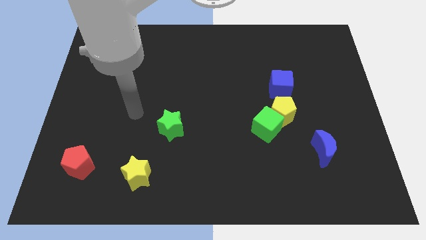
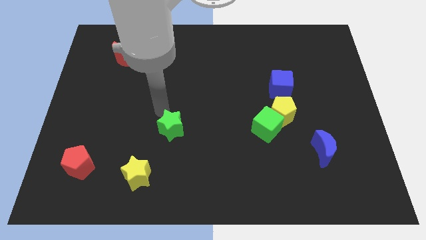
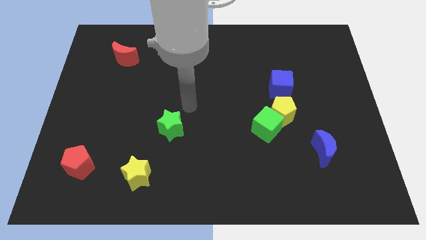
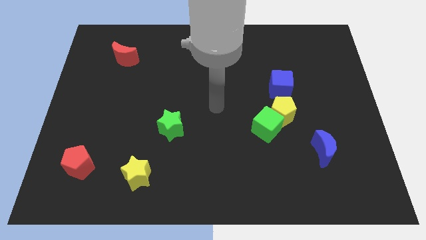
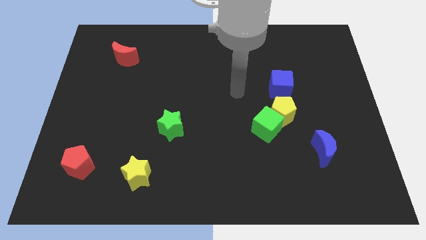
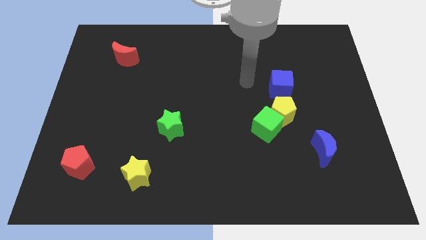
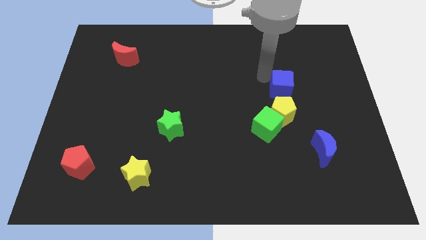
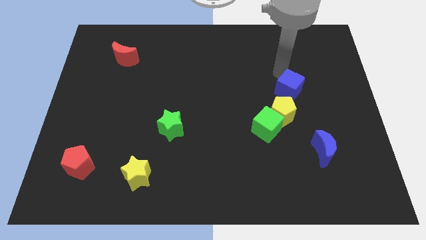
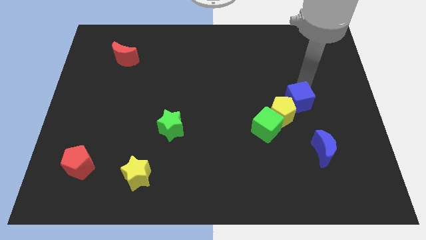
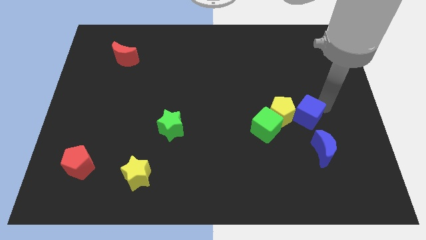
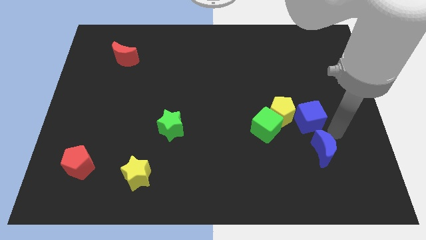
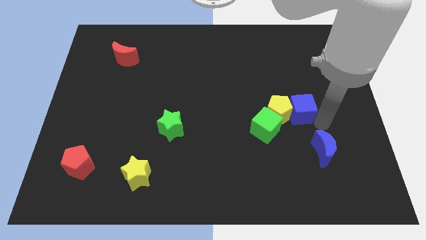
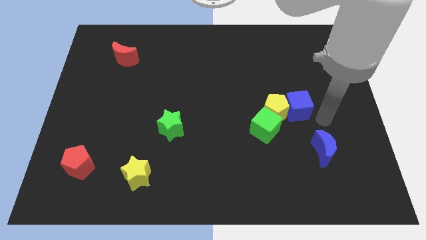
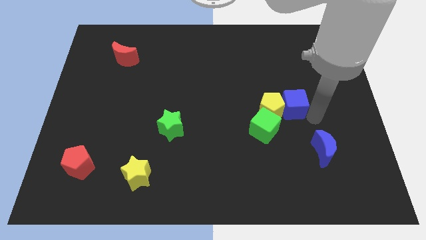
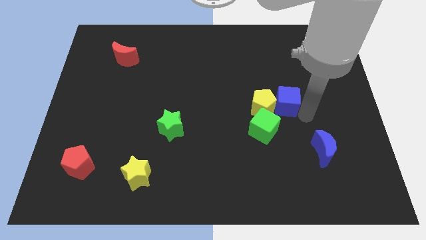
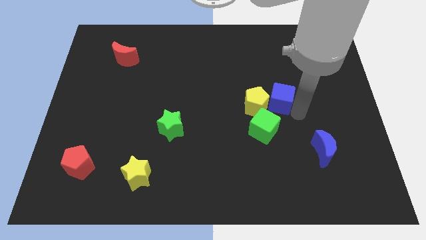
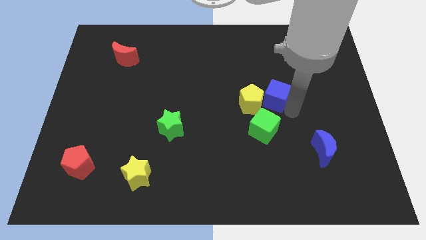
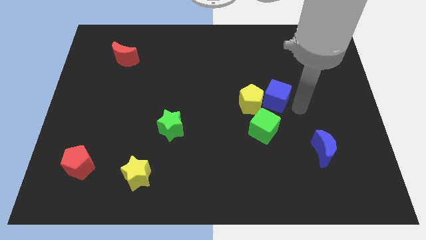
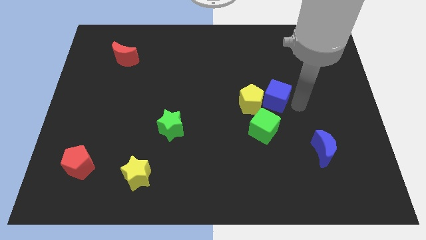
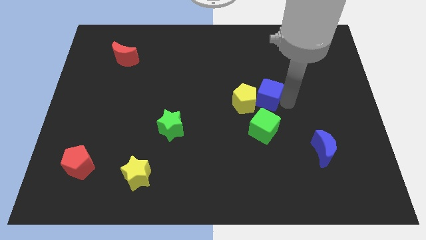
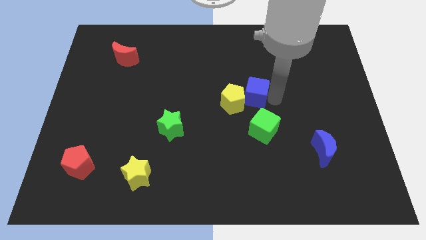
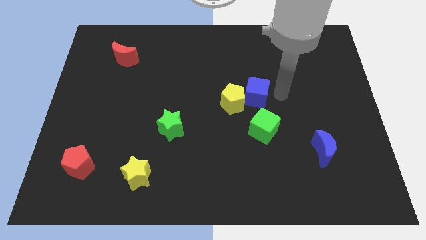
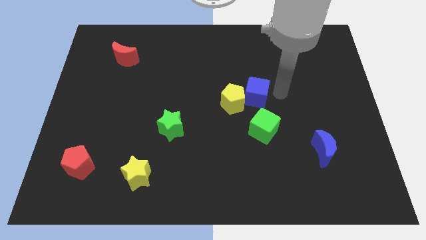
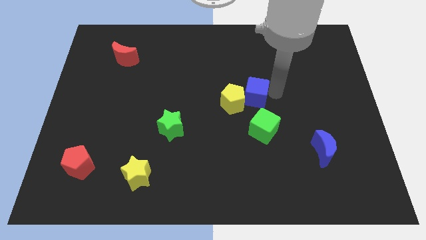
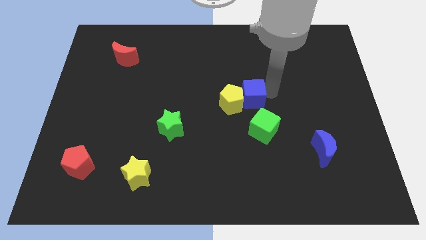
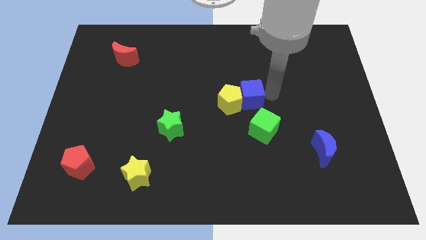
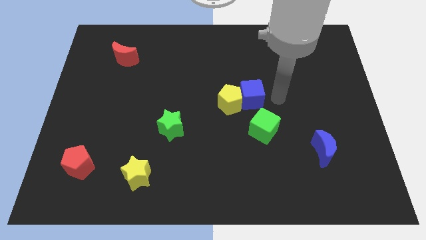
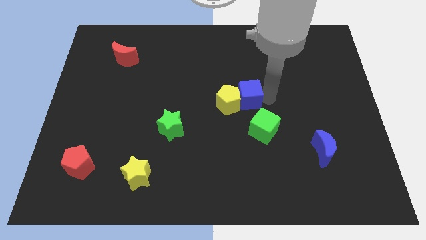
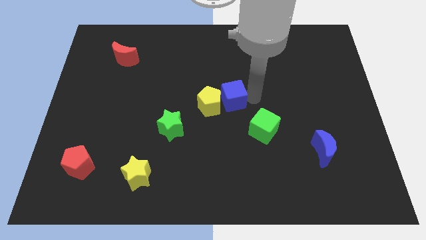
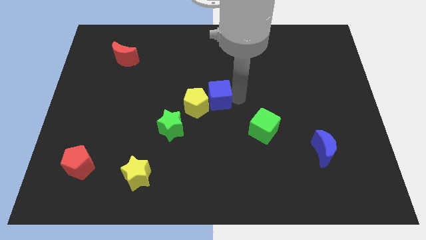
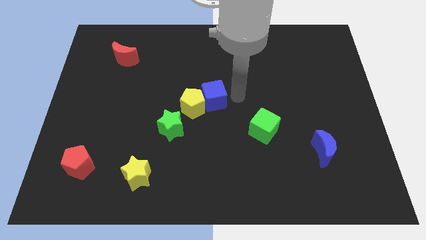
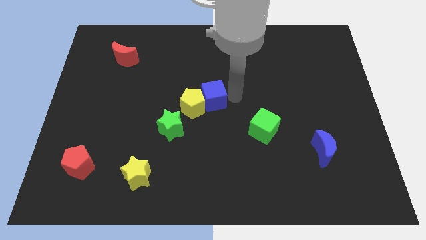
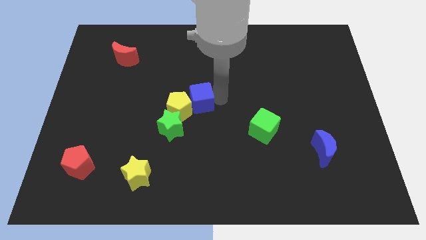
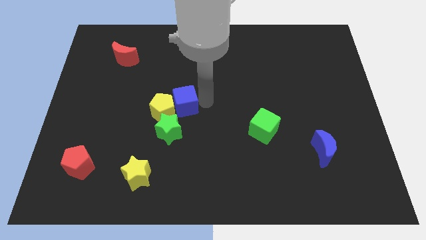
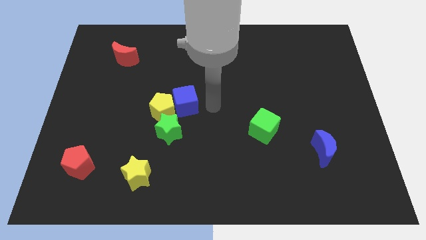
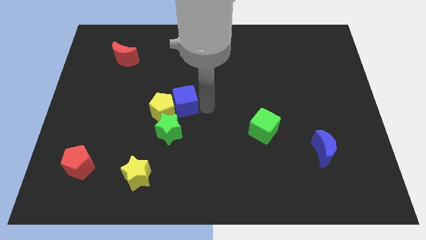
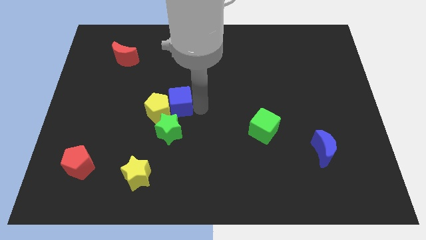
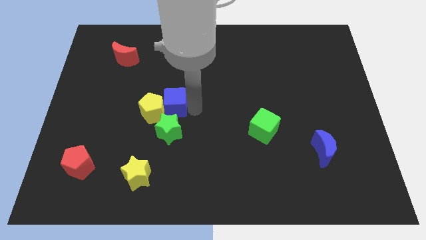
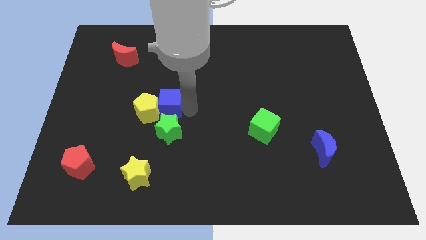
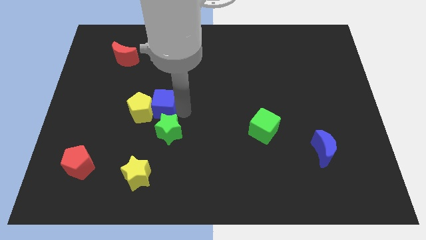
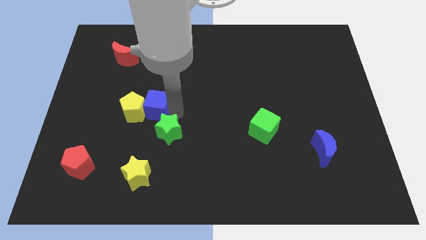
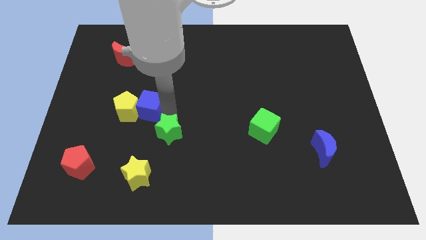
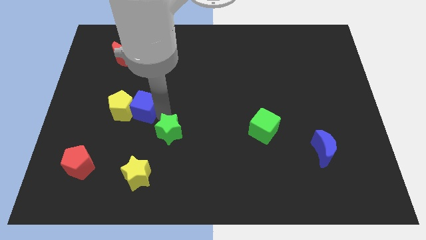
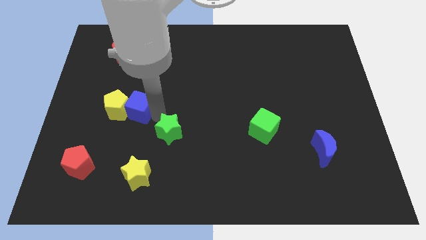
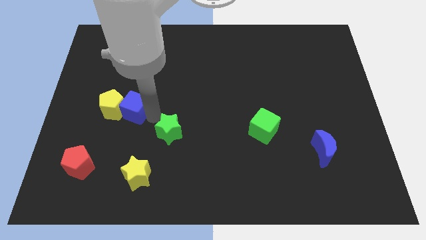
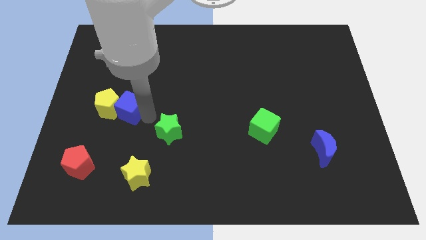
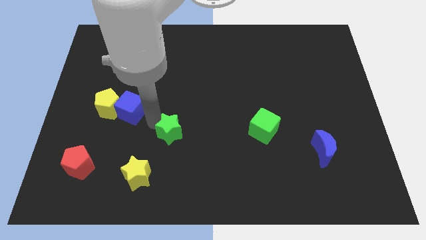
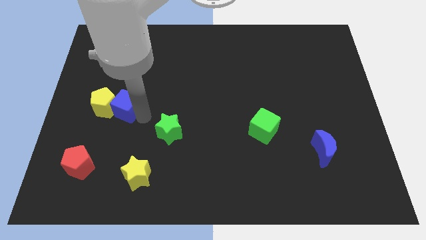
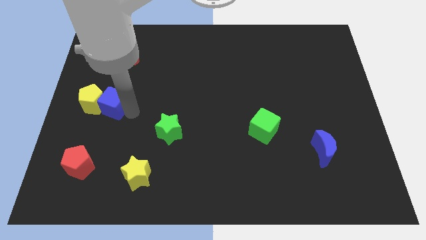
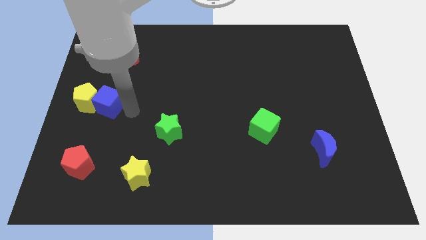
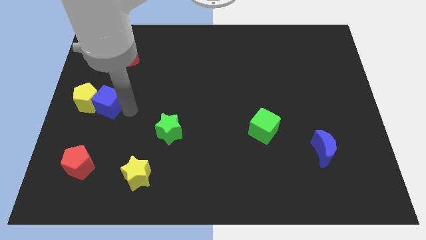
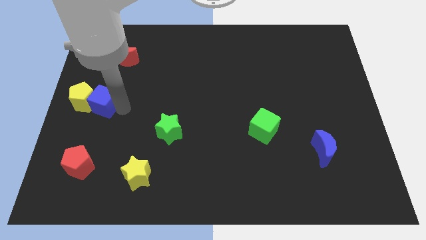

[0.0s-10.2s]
move the blue cube to the left side
